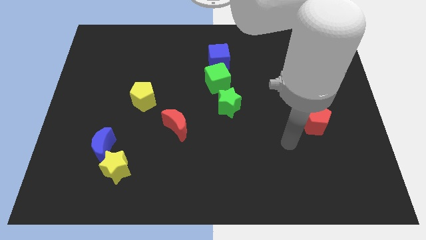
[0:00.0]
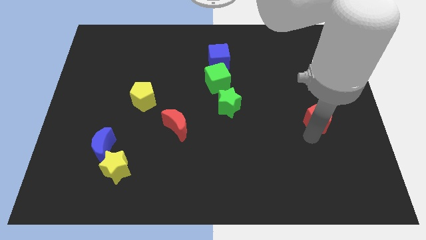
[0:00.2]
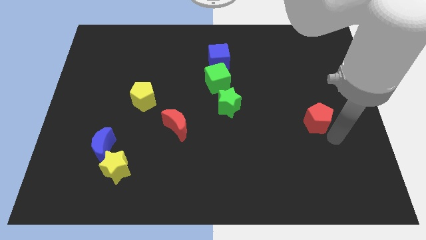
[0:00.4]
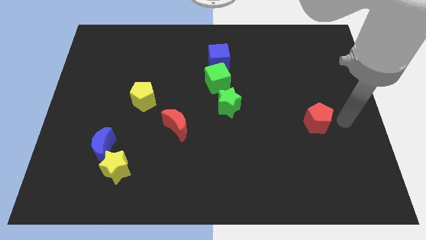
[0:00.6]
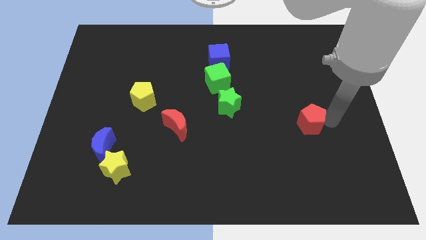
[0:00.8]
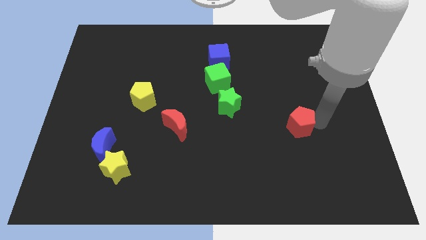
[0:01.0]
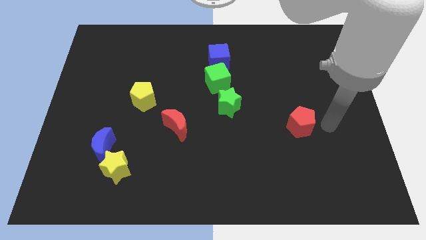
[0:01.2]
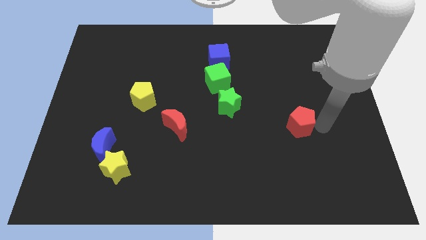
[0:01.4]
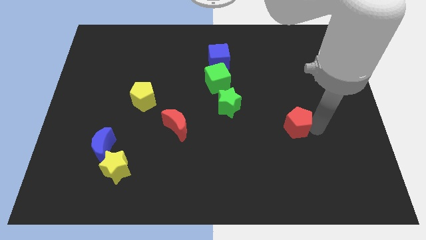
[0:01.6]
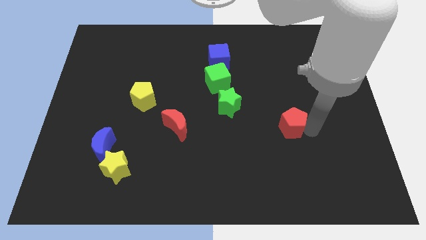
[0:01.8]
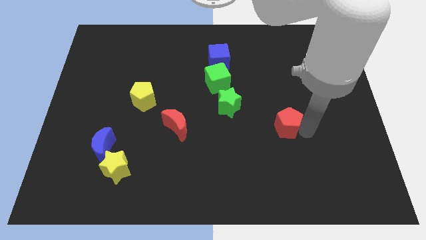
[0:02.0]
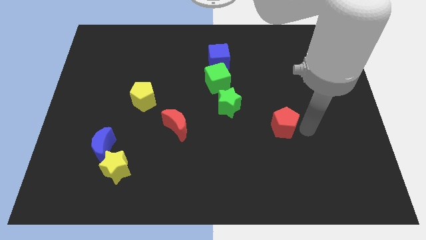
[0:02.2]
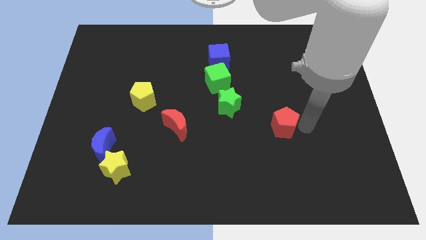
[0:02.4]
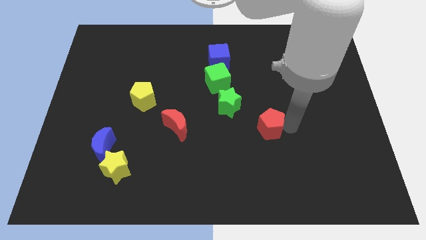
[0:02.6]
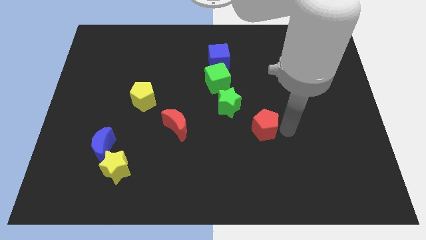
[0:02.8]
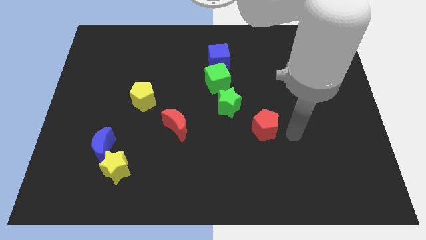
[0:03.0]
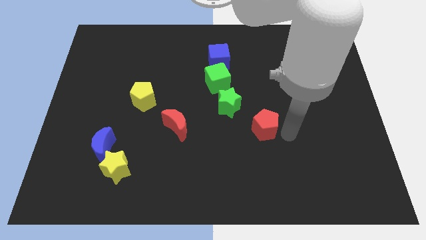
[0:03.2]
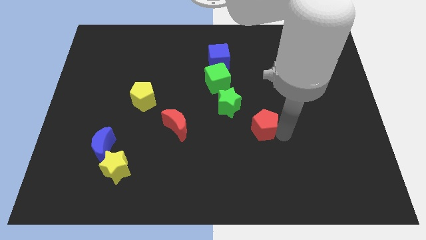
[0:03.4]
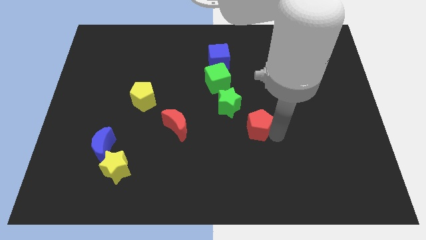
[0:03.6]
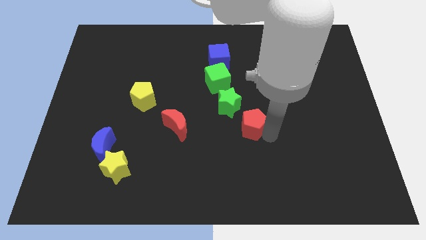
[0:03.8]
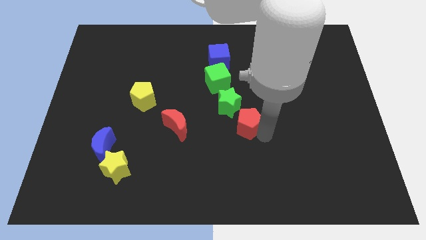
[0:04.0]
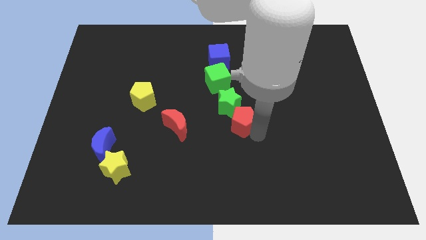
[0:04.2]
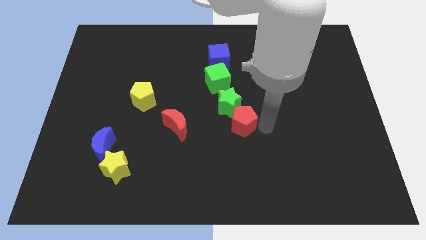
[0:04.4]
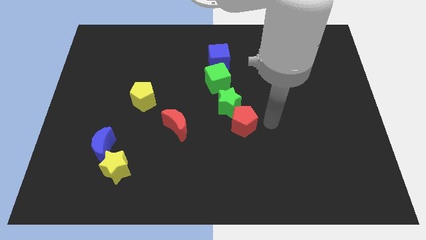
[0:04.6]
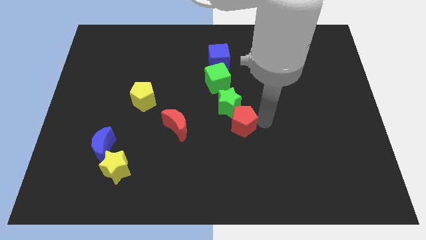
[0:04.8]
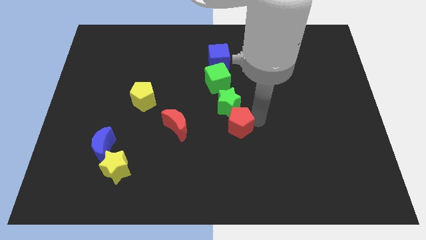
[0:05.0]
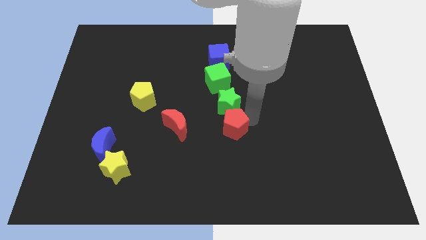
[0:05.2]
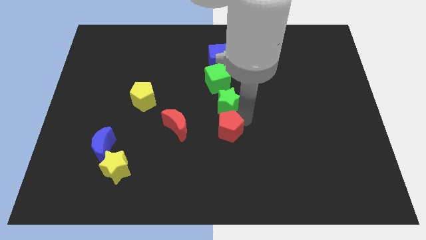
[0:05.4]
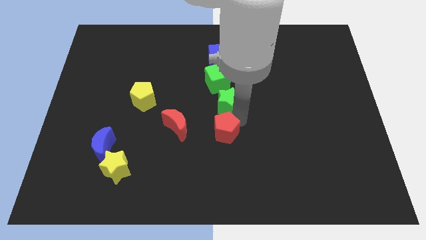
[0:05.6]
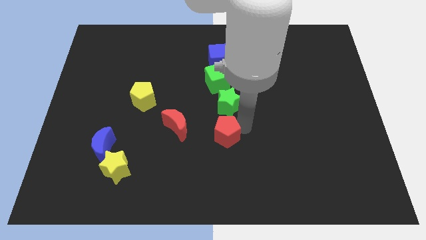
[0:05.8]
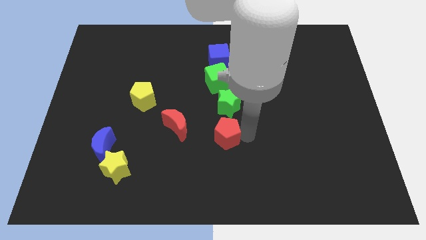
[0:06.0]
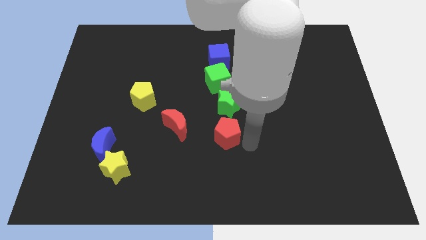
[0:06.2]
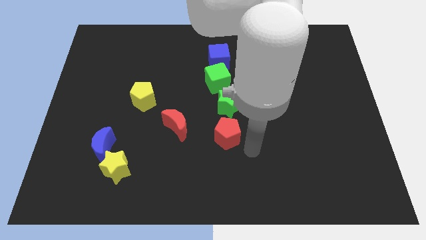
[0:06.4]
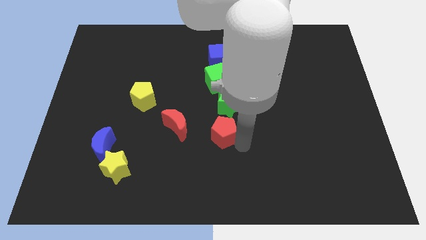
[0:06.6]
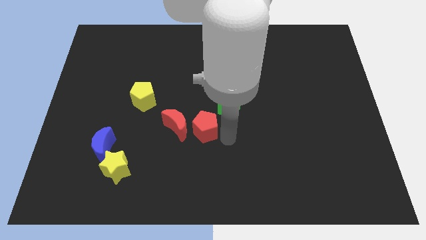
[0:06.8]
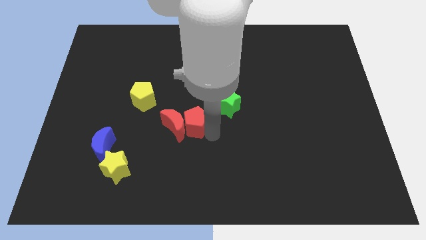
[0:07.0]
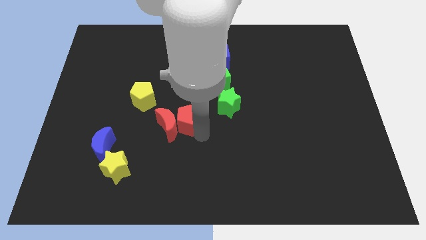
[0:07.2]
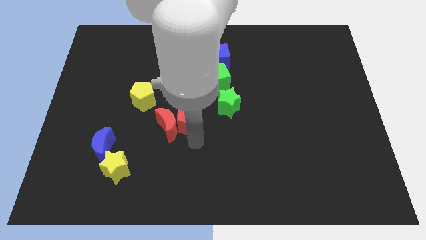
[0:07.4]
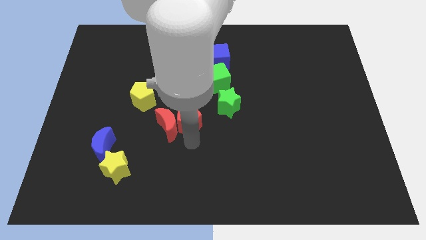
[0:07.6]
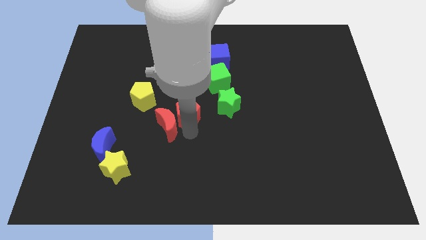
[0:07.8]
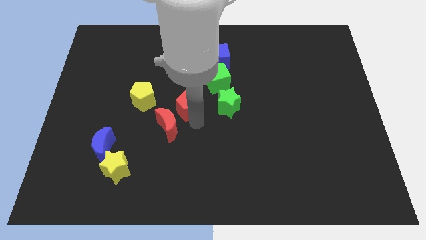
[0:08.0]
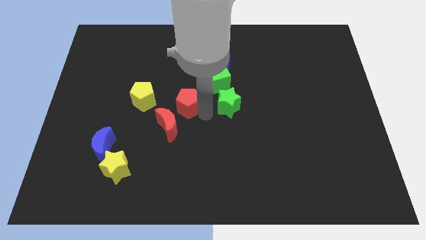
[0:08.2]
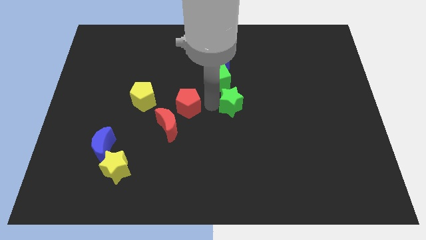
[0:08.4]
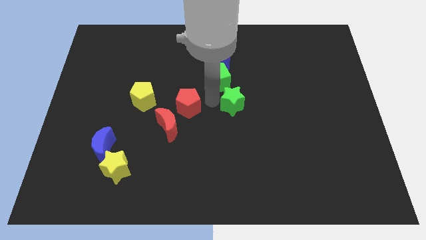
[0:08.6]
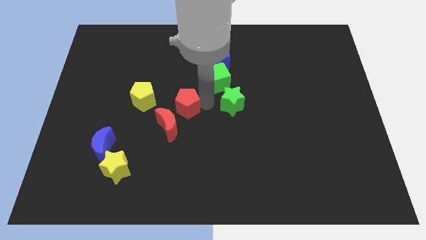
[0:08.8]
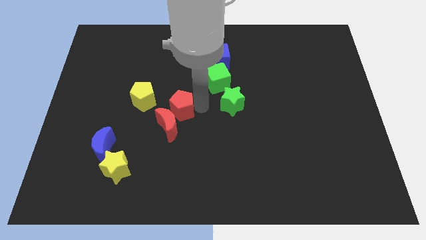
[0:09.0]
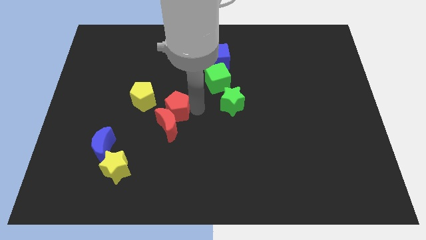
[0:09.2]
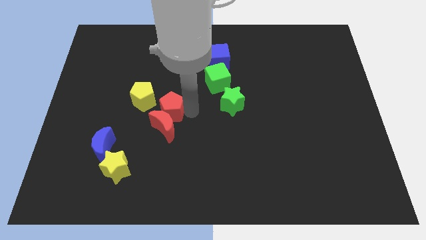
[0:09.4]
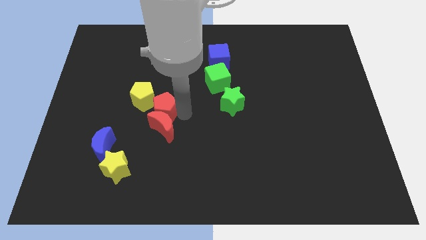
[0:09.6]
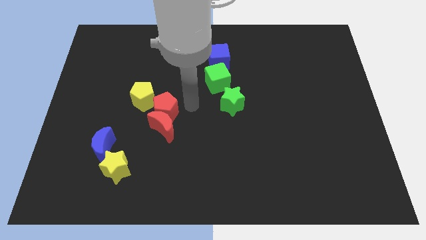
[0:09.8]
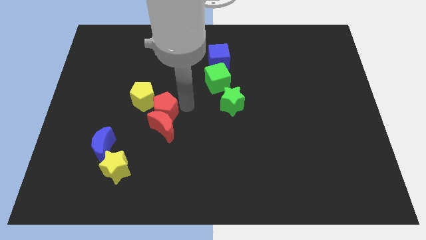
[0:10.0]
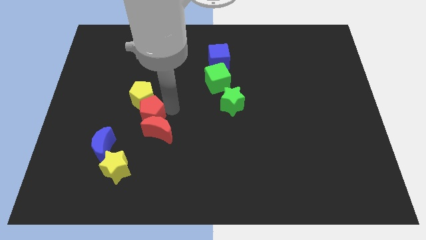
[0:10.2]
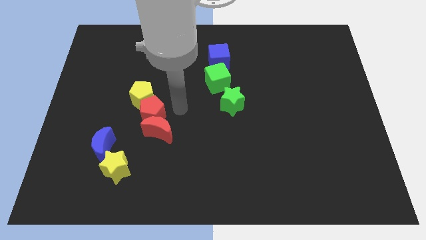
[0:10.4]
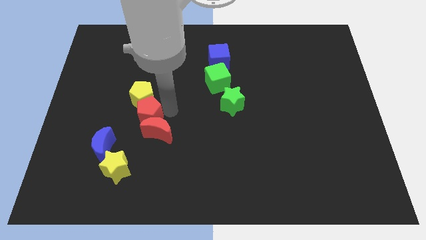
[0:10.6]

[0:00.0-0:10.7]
push the red pentagon diagonally down and to the left of the yellow pentagon
